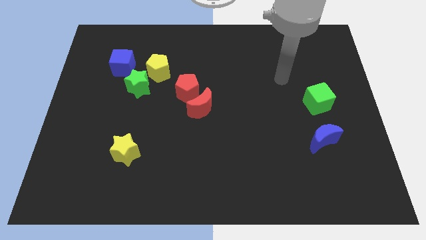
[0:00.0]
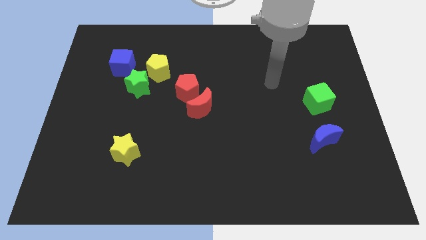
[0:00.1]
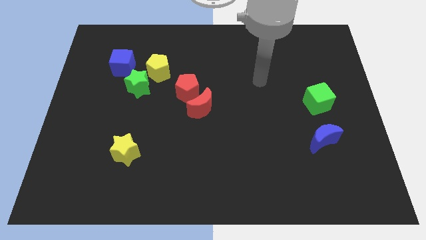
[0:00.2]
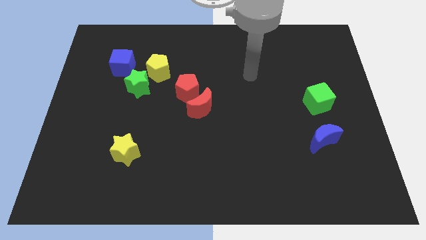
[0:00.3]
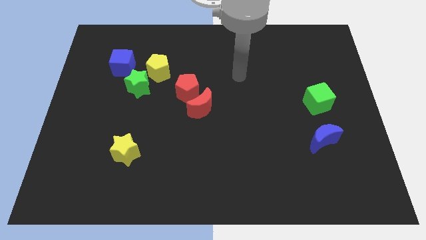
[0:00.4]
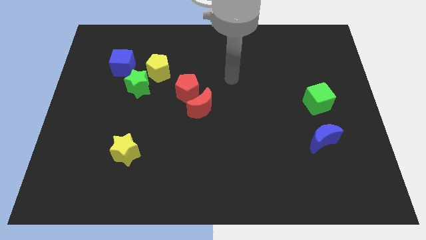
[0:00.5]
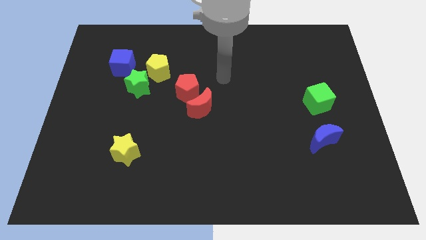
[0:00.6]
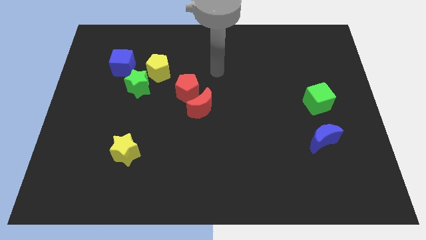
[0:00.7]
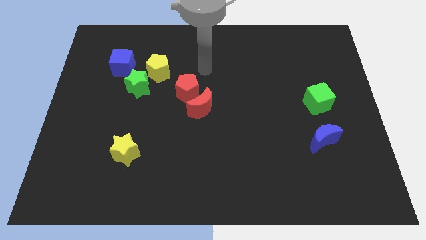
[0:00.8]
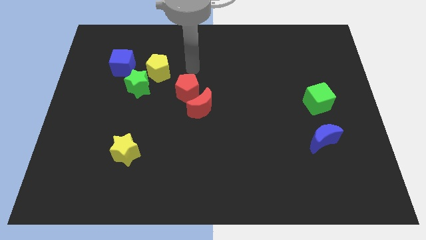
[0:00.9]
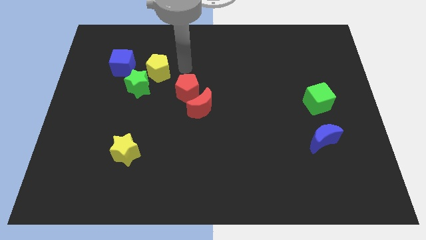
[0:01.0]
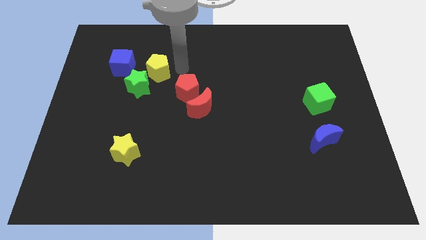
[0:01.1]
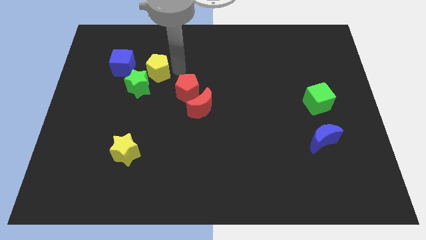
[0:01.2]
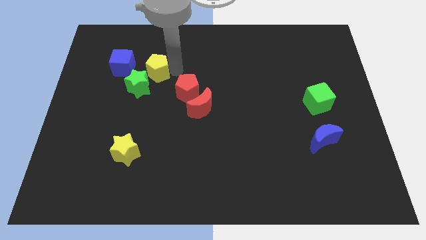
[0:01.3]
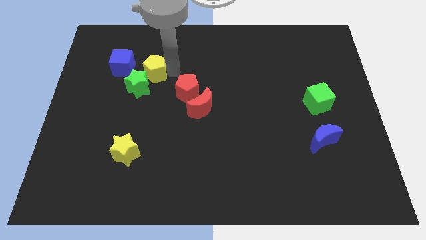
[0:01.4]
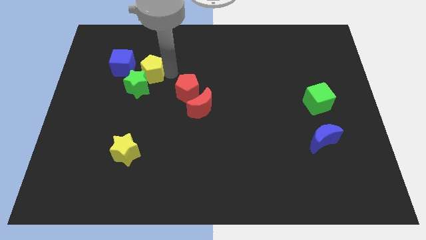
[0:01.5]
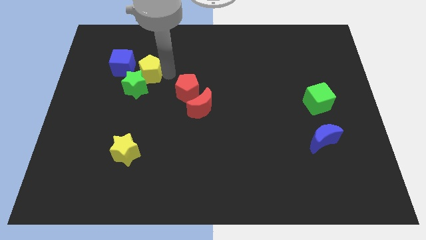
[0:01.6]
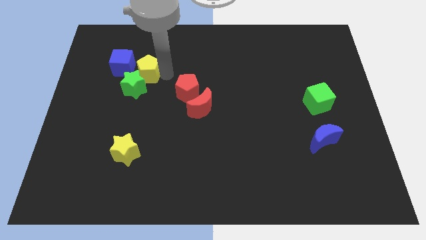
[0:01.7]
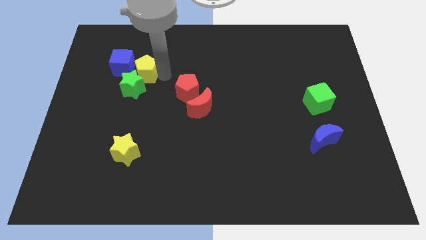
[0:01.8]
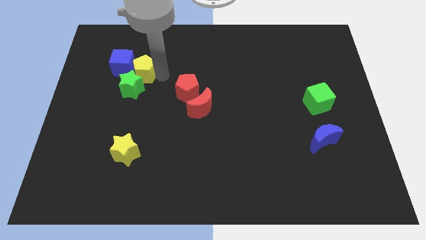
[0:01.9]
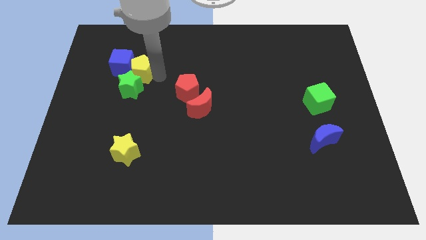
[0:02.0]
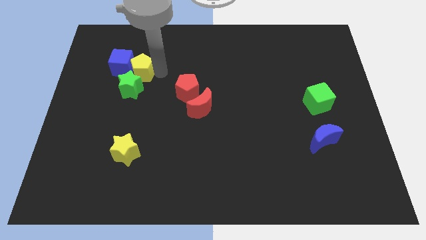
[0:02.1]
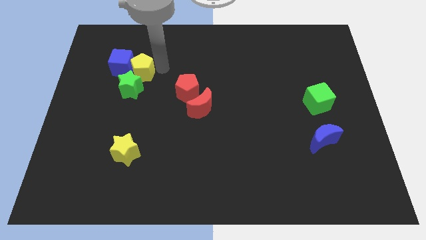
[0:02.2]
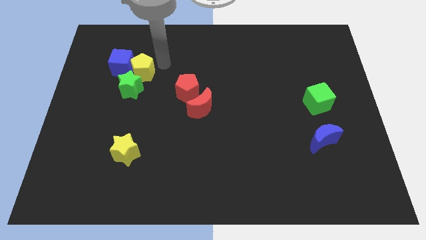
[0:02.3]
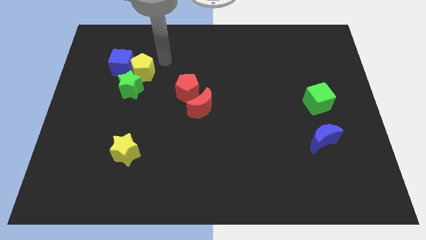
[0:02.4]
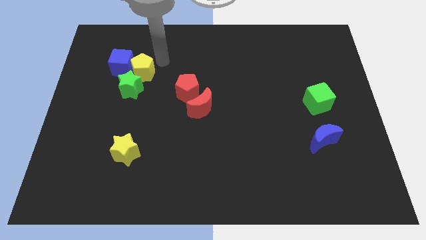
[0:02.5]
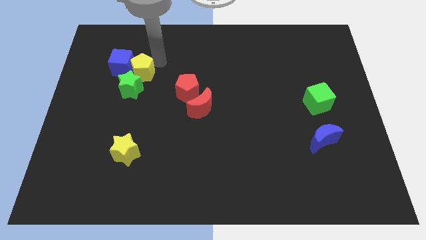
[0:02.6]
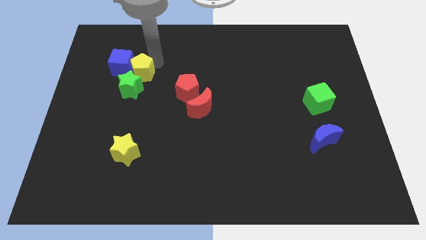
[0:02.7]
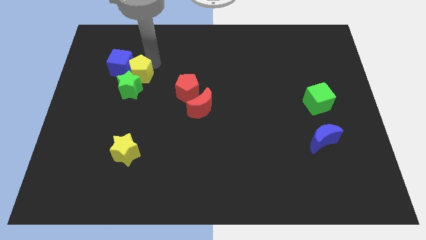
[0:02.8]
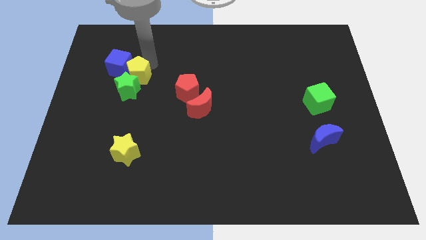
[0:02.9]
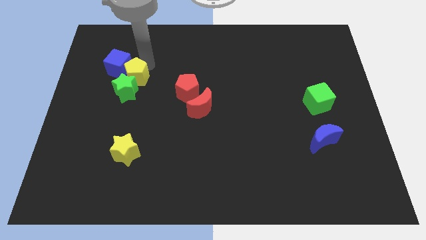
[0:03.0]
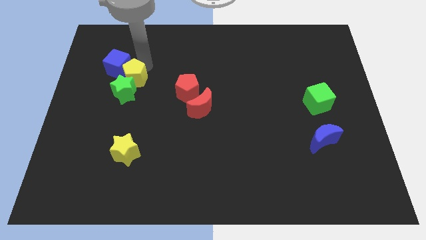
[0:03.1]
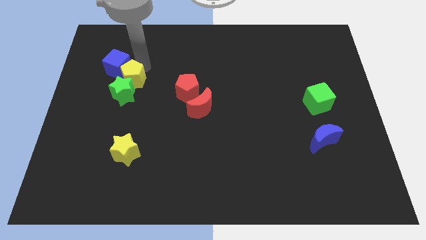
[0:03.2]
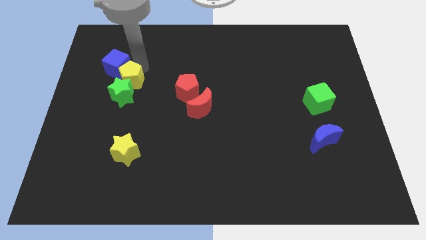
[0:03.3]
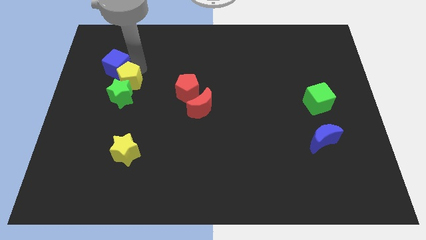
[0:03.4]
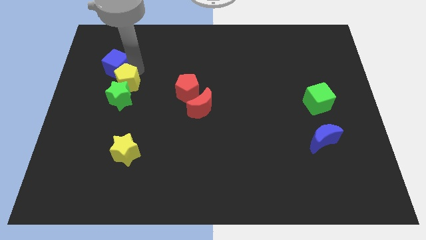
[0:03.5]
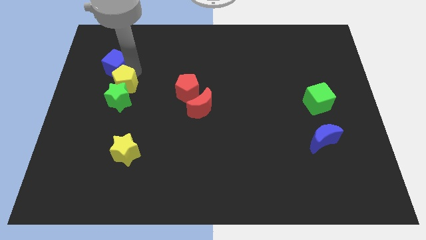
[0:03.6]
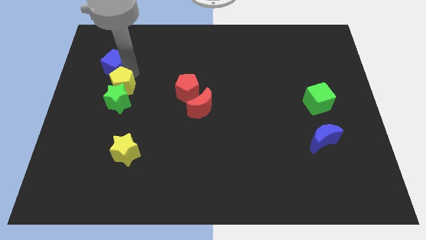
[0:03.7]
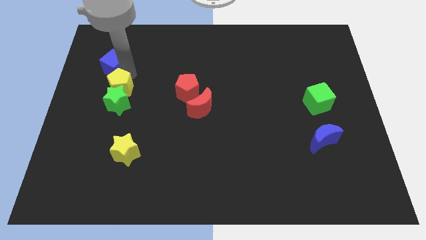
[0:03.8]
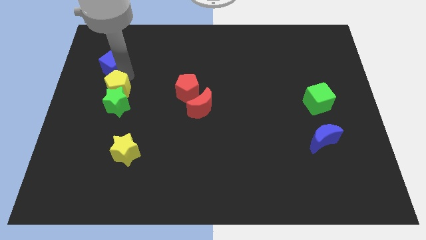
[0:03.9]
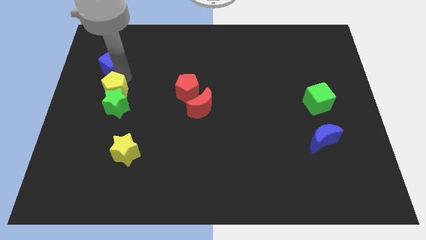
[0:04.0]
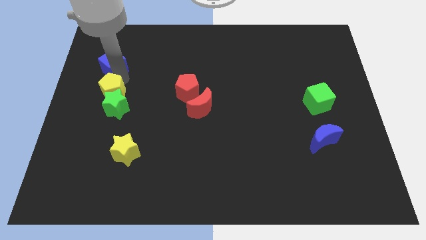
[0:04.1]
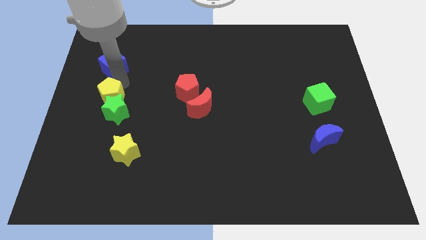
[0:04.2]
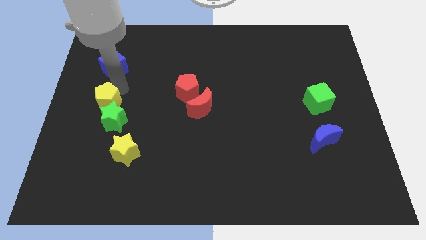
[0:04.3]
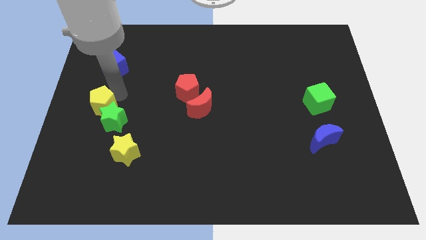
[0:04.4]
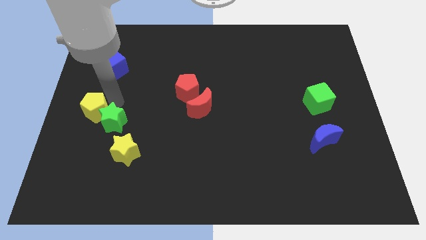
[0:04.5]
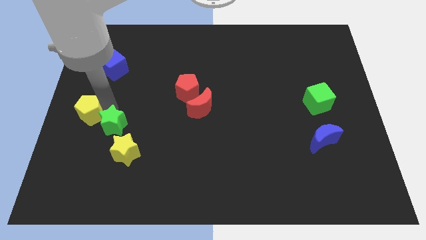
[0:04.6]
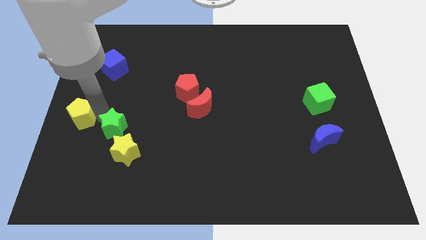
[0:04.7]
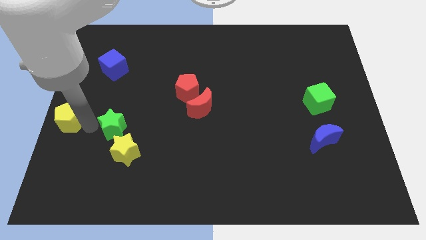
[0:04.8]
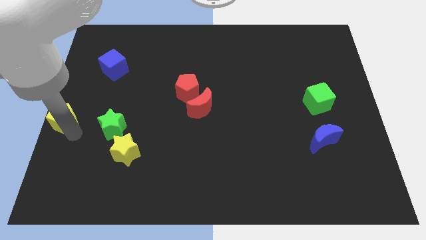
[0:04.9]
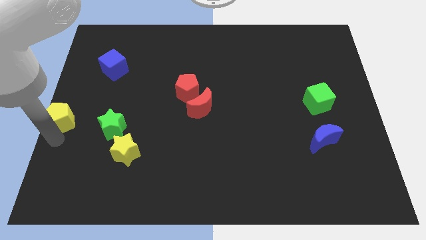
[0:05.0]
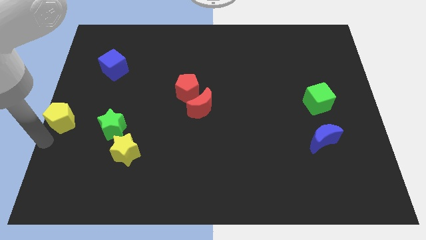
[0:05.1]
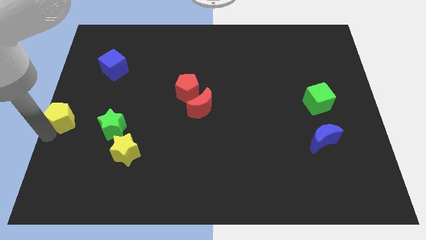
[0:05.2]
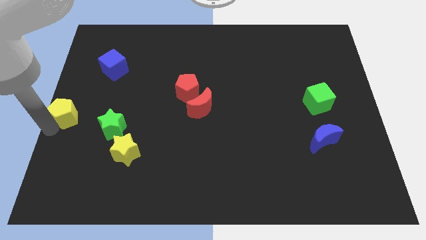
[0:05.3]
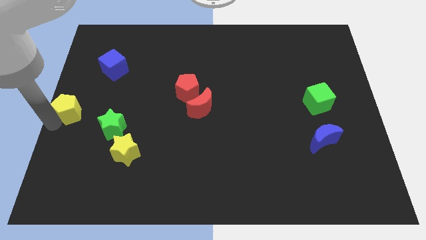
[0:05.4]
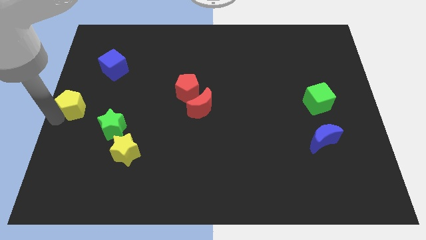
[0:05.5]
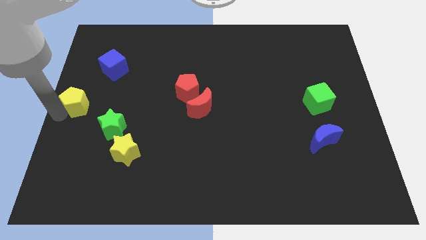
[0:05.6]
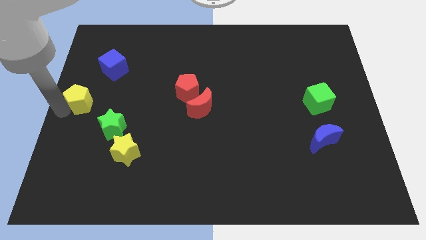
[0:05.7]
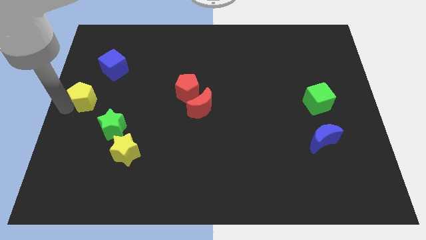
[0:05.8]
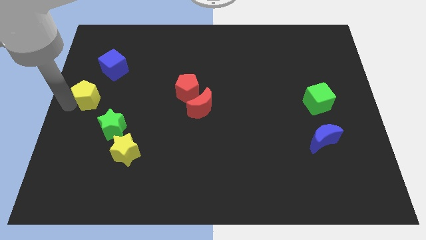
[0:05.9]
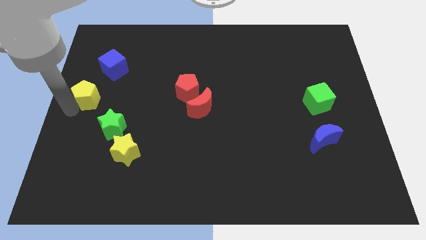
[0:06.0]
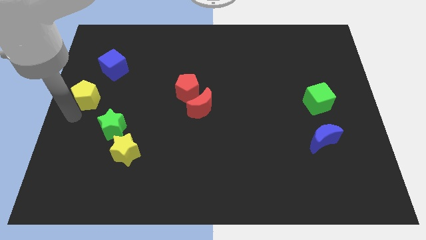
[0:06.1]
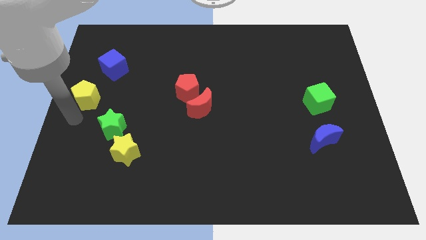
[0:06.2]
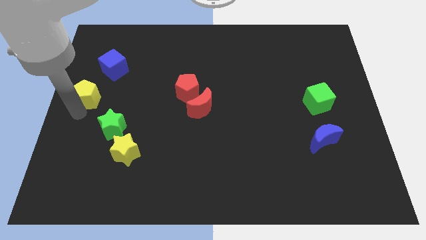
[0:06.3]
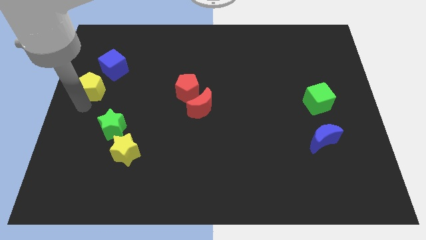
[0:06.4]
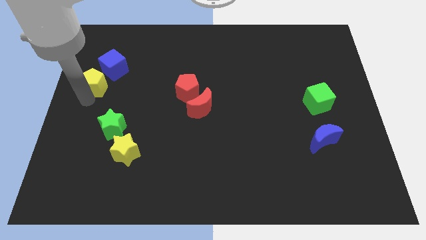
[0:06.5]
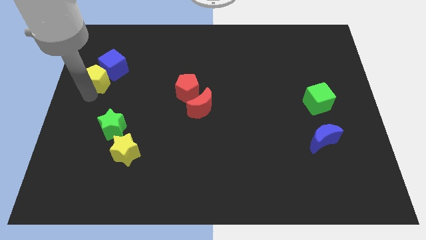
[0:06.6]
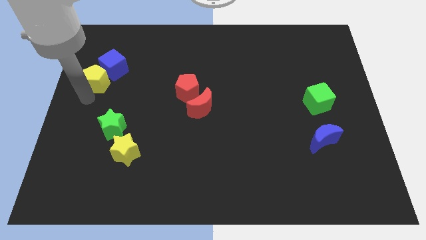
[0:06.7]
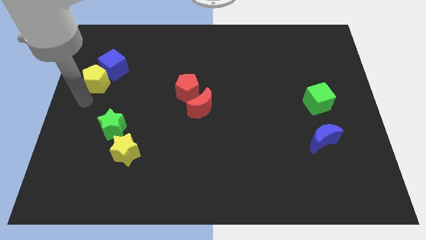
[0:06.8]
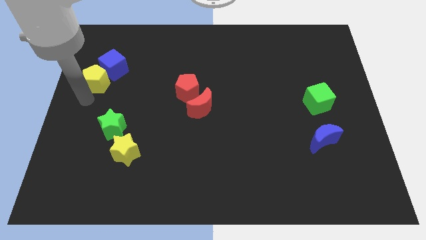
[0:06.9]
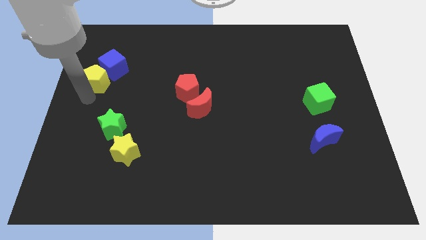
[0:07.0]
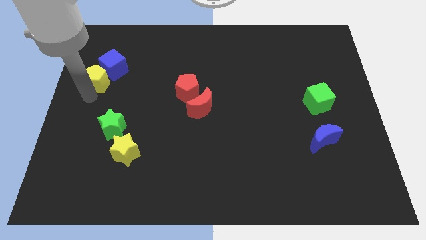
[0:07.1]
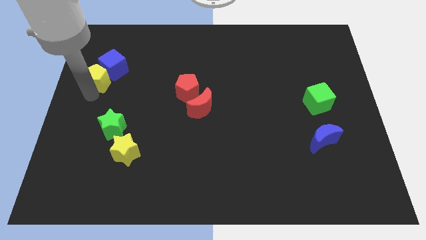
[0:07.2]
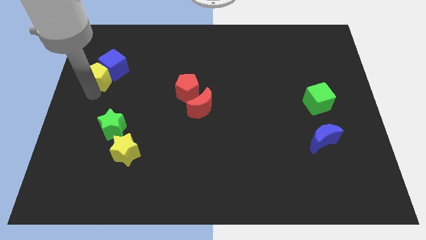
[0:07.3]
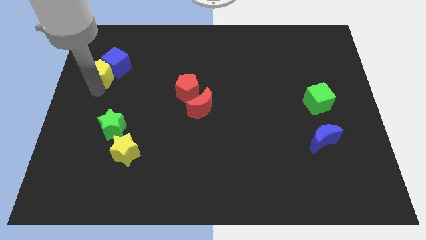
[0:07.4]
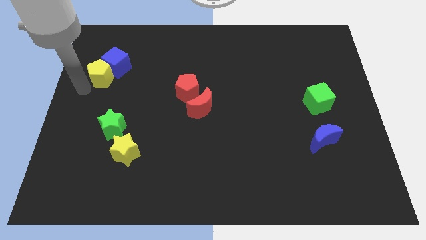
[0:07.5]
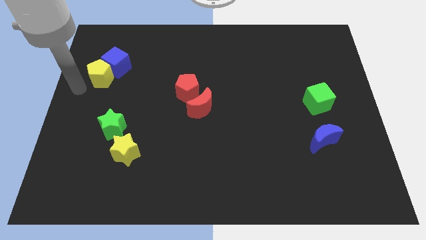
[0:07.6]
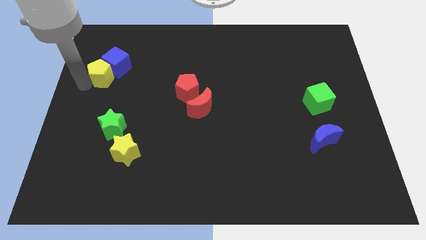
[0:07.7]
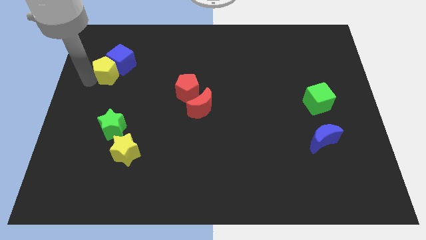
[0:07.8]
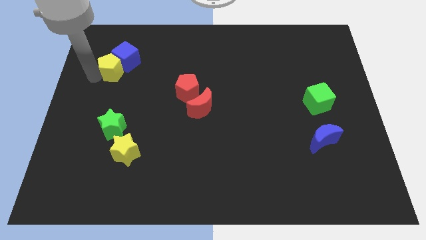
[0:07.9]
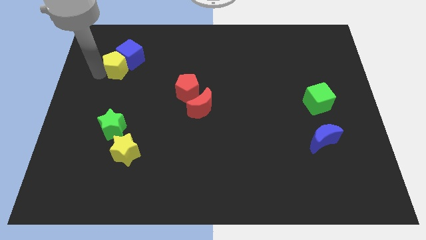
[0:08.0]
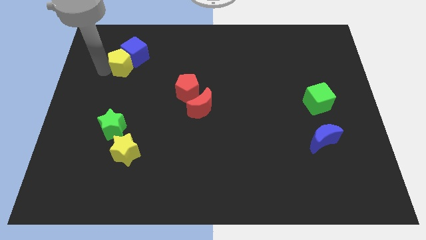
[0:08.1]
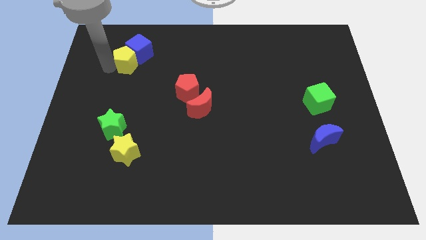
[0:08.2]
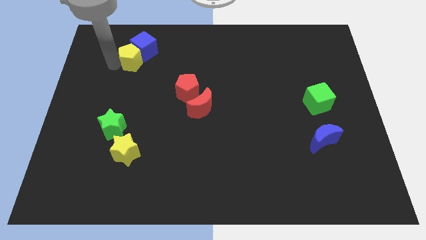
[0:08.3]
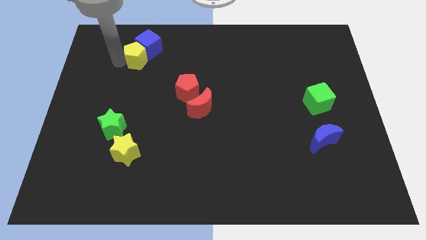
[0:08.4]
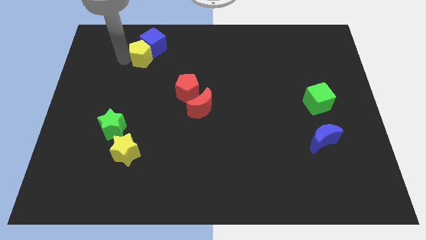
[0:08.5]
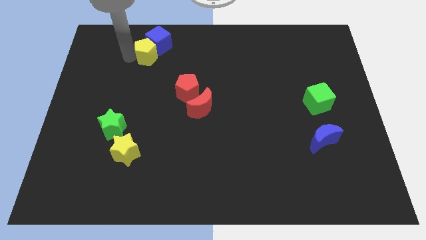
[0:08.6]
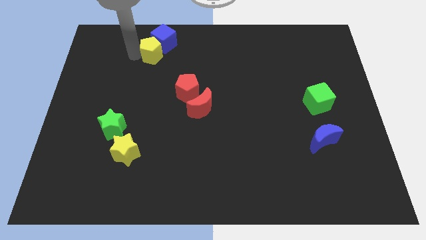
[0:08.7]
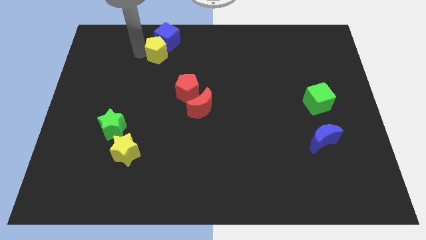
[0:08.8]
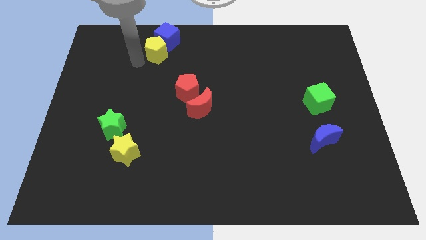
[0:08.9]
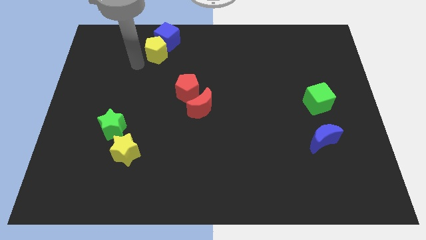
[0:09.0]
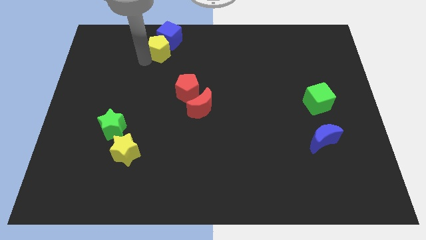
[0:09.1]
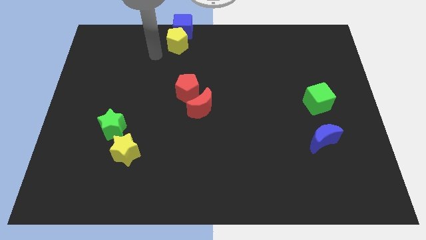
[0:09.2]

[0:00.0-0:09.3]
slide the yellow pentagon to the top side
